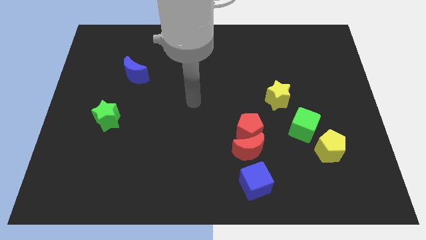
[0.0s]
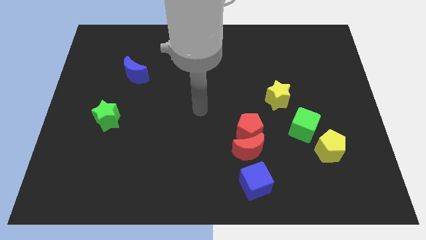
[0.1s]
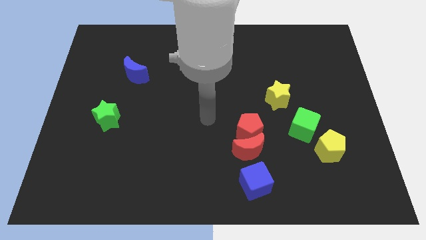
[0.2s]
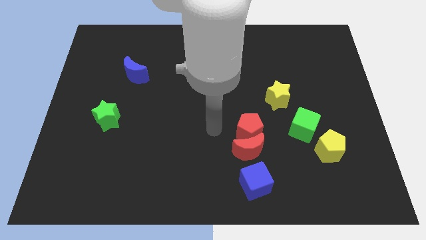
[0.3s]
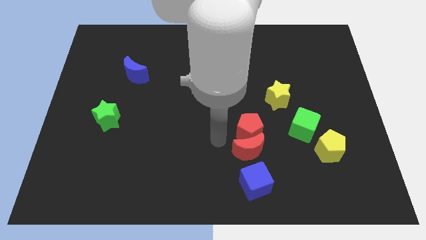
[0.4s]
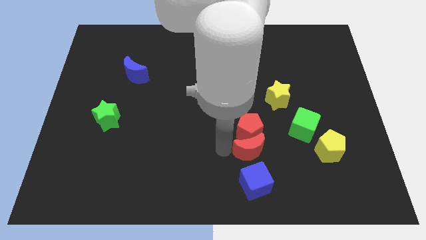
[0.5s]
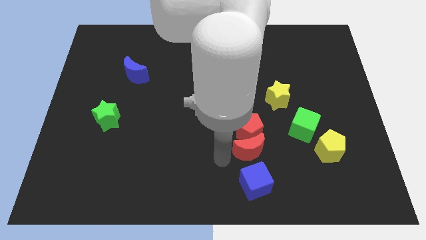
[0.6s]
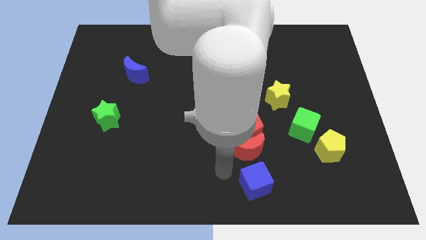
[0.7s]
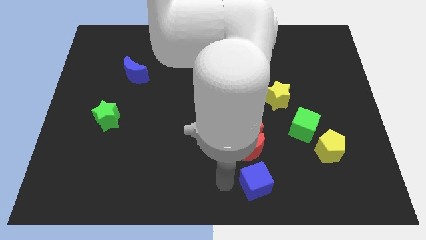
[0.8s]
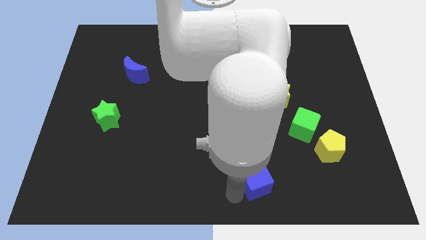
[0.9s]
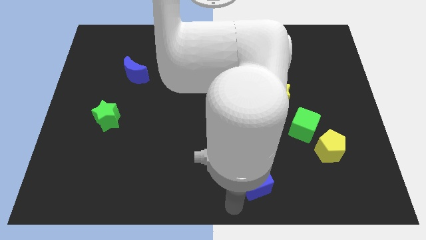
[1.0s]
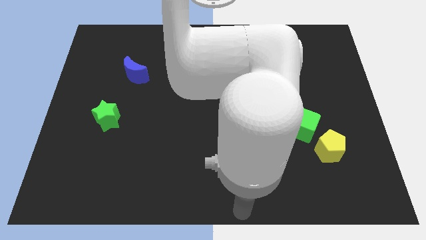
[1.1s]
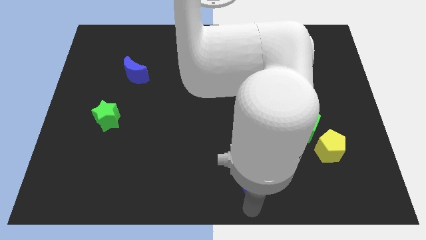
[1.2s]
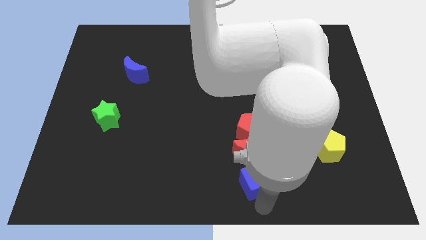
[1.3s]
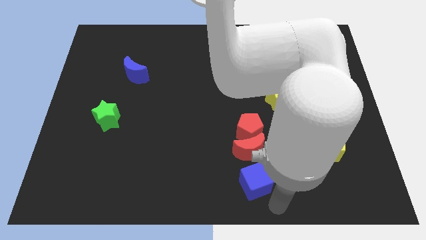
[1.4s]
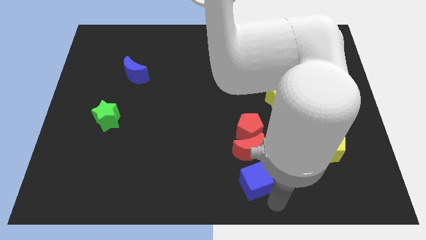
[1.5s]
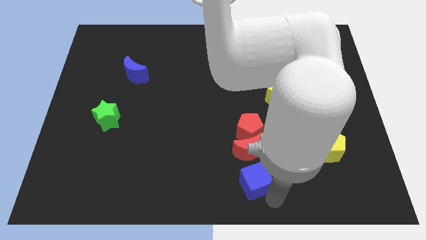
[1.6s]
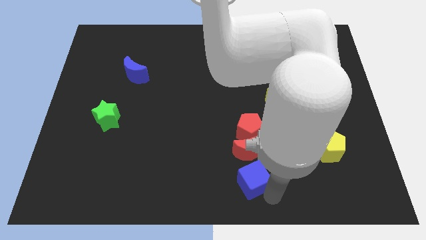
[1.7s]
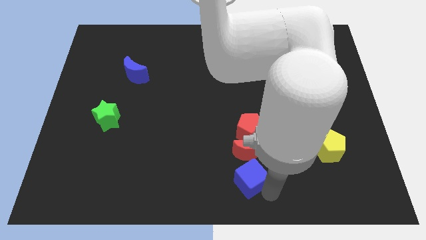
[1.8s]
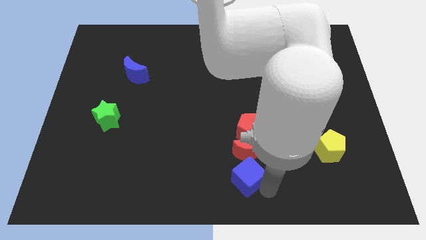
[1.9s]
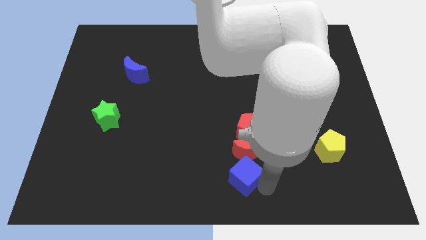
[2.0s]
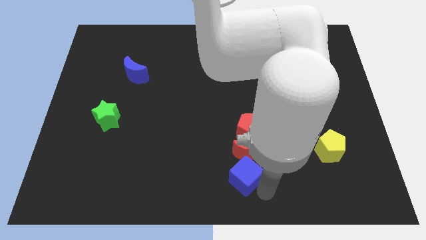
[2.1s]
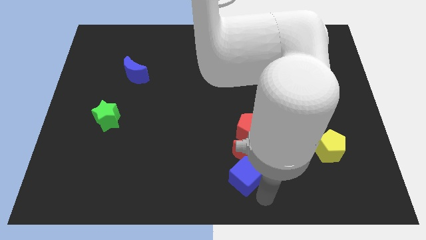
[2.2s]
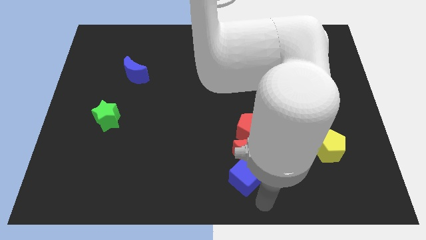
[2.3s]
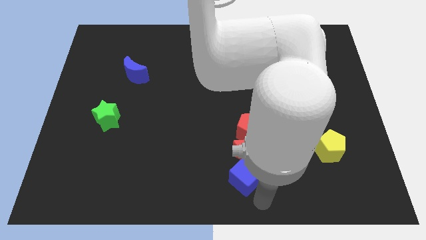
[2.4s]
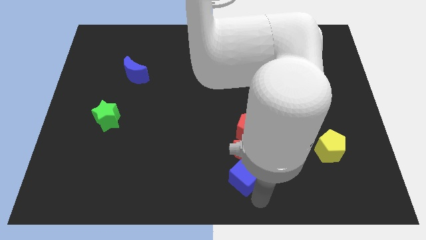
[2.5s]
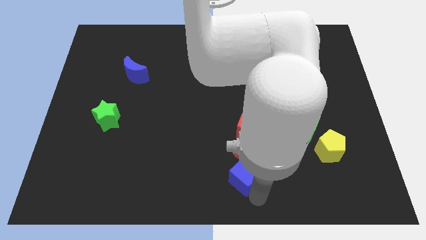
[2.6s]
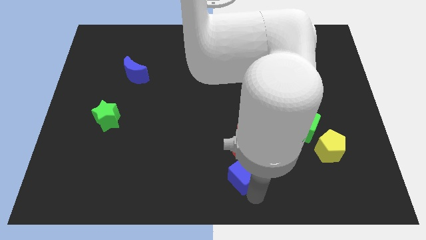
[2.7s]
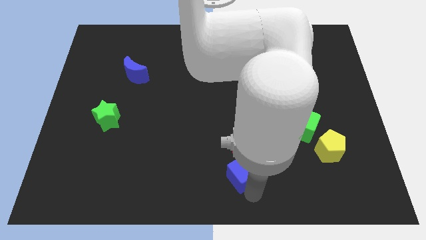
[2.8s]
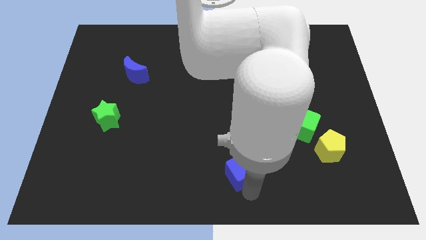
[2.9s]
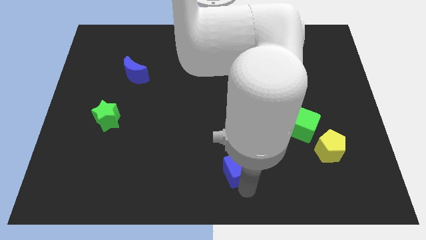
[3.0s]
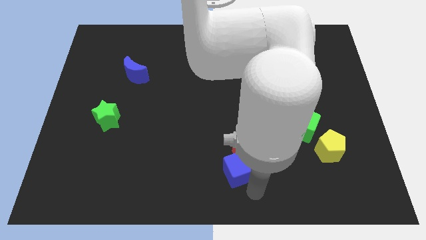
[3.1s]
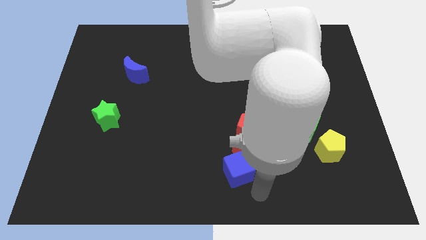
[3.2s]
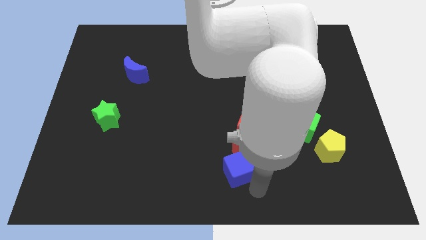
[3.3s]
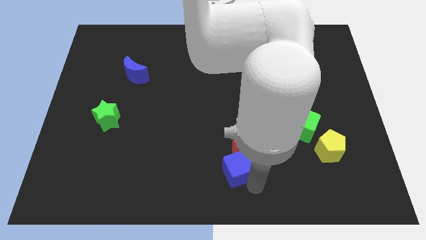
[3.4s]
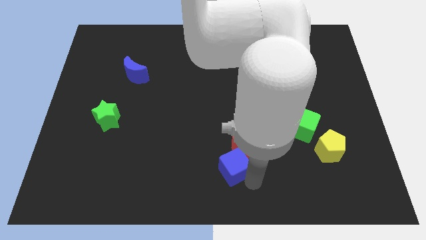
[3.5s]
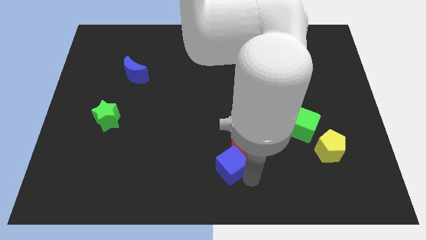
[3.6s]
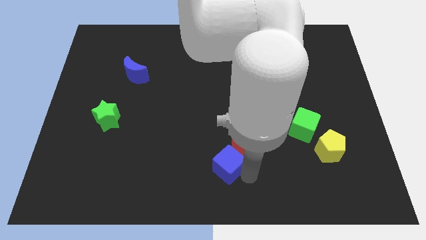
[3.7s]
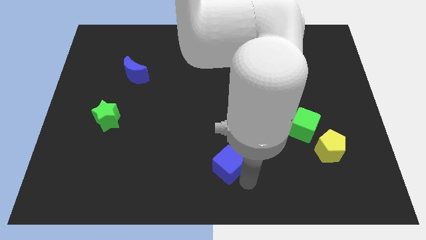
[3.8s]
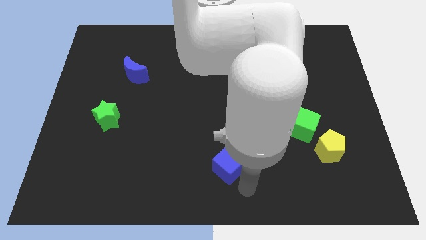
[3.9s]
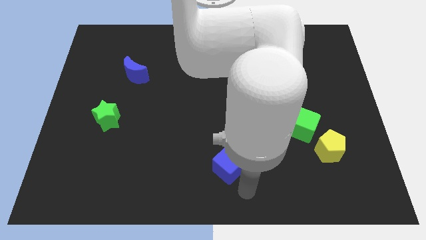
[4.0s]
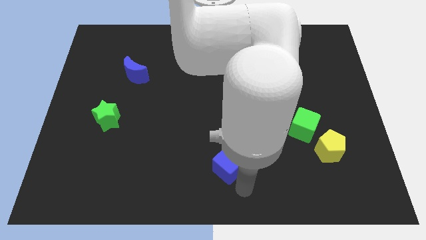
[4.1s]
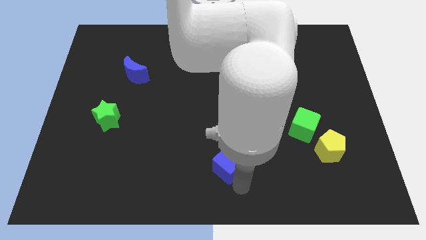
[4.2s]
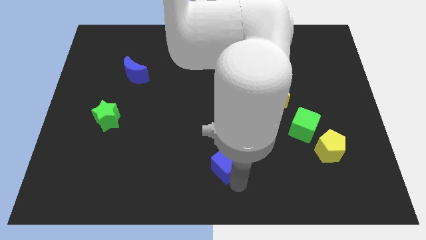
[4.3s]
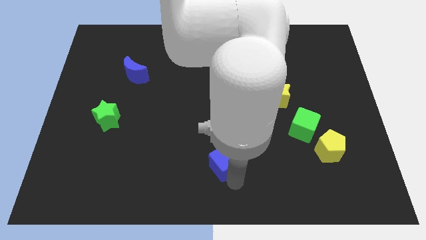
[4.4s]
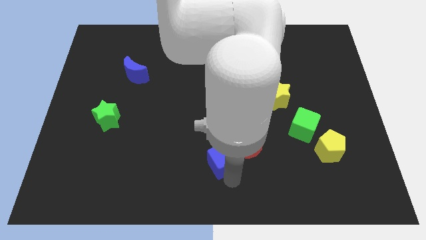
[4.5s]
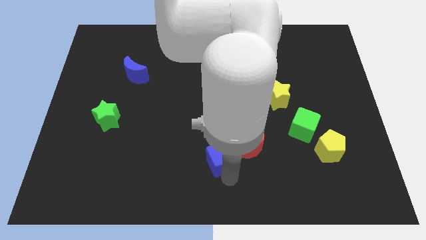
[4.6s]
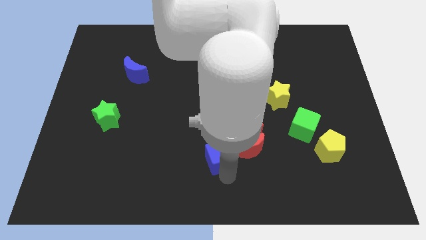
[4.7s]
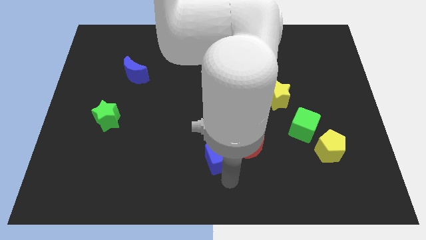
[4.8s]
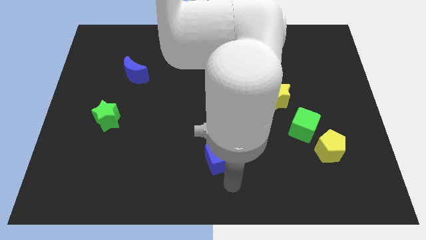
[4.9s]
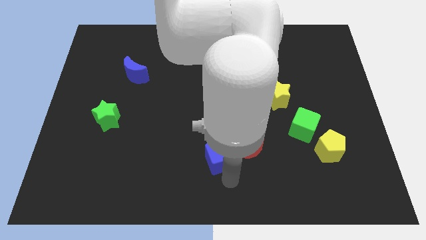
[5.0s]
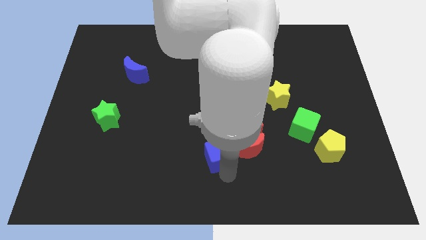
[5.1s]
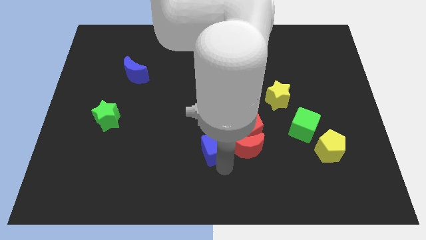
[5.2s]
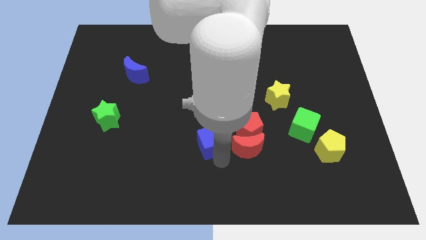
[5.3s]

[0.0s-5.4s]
slide the blue cube to the left side of the red pentagon

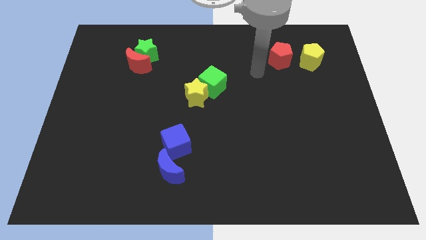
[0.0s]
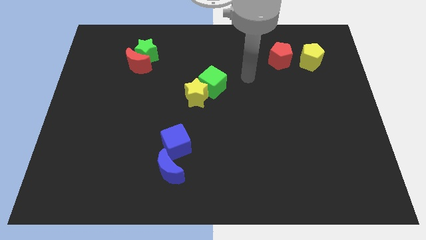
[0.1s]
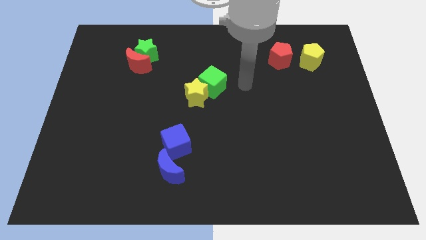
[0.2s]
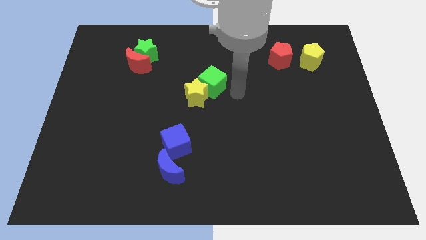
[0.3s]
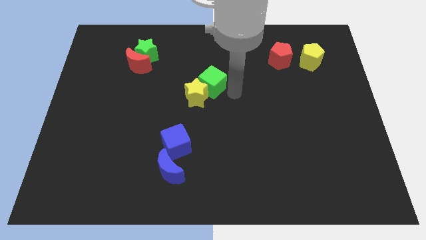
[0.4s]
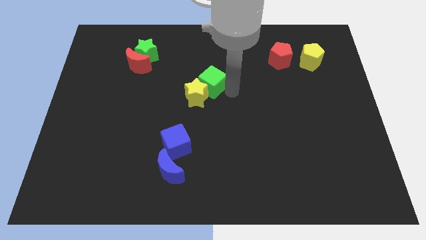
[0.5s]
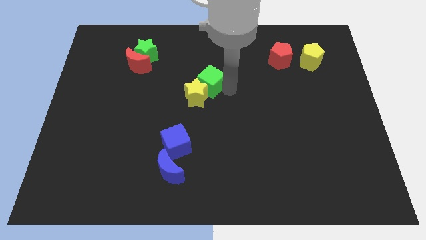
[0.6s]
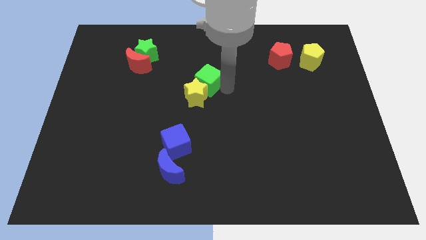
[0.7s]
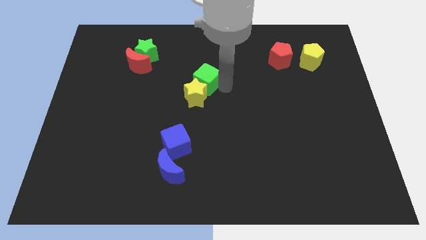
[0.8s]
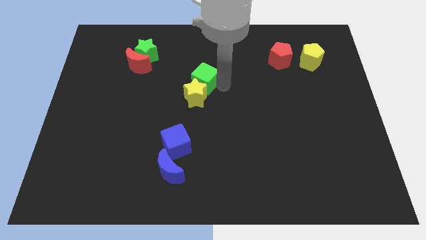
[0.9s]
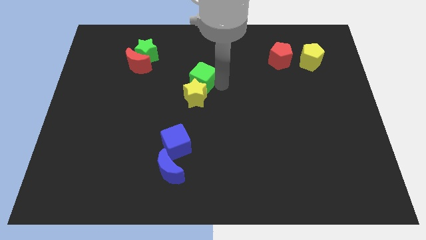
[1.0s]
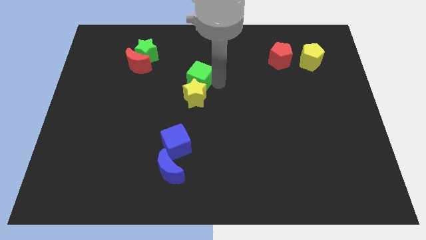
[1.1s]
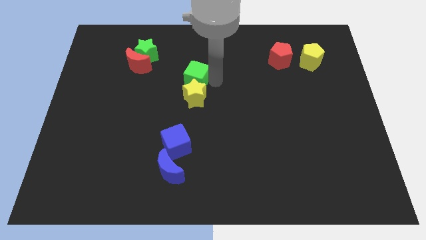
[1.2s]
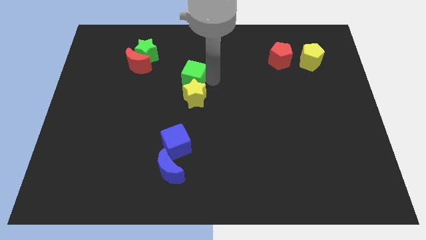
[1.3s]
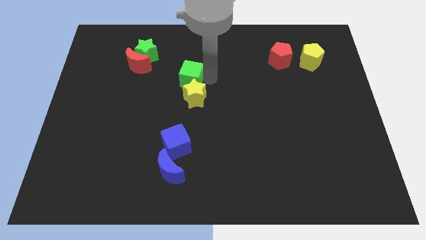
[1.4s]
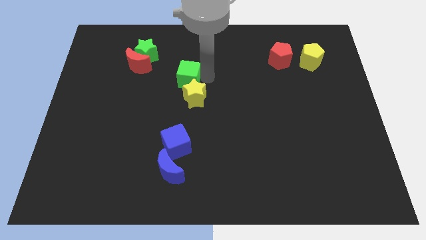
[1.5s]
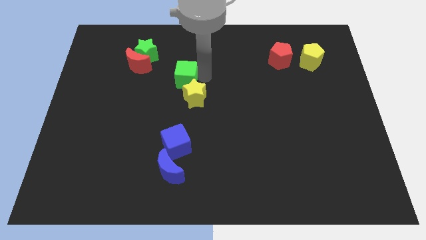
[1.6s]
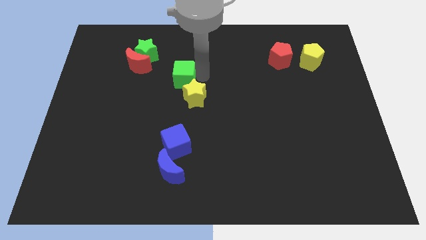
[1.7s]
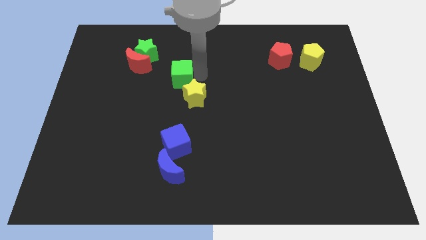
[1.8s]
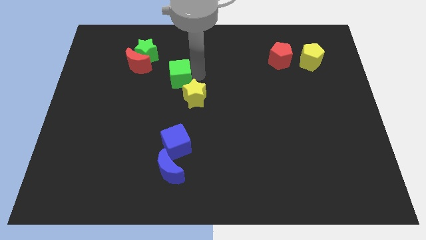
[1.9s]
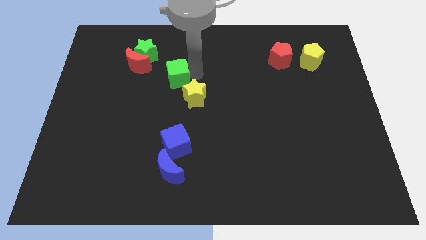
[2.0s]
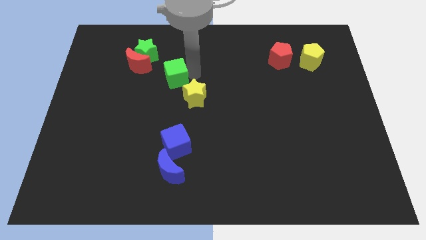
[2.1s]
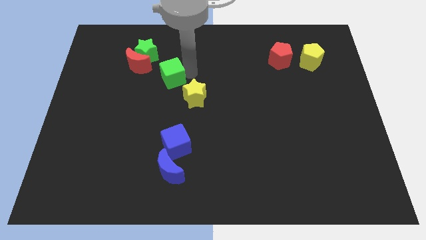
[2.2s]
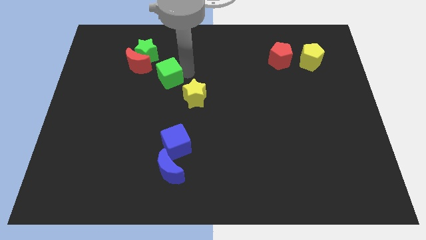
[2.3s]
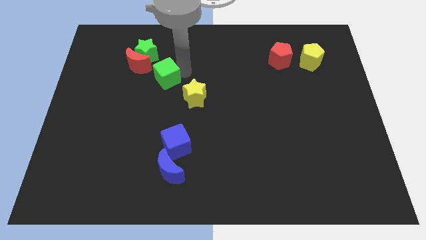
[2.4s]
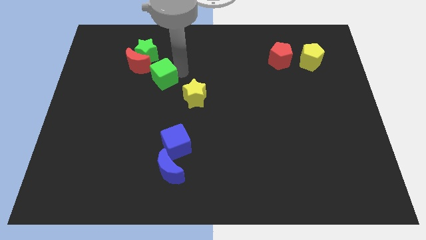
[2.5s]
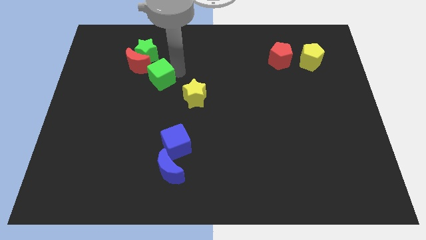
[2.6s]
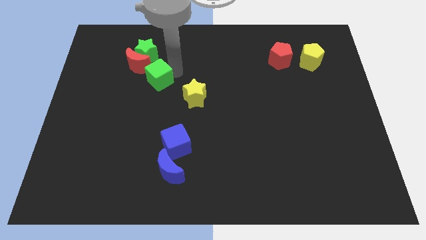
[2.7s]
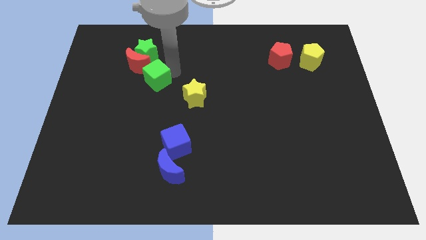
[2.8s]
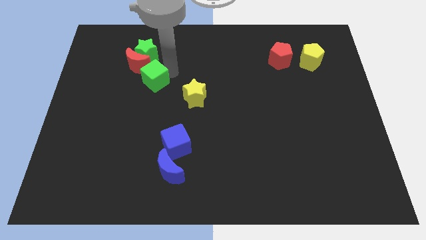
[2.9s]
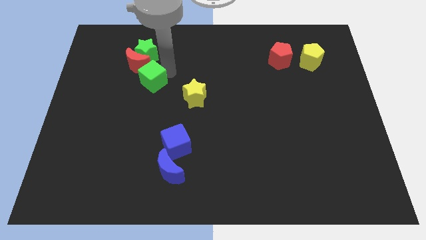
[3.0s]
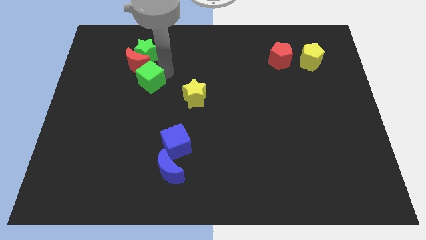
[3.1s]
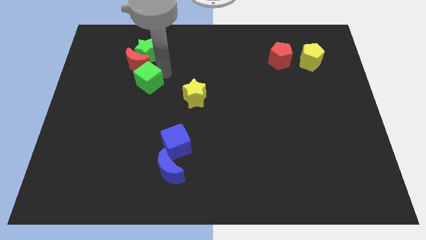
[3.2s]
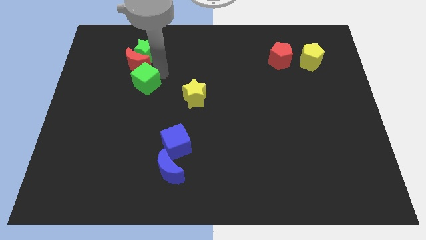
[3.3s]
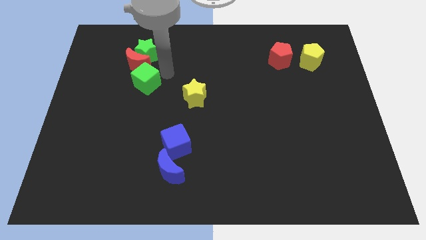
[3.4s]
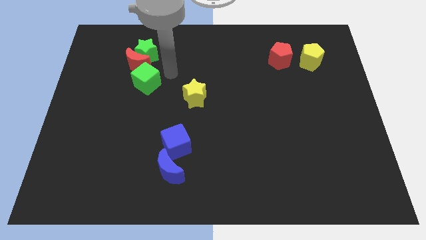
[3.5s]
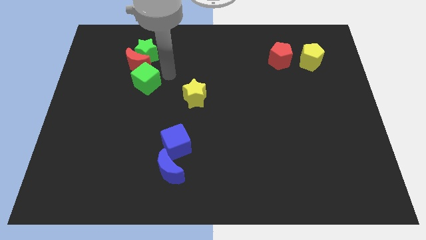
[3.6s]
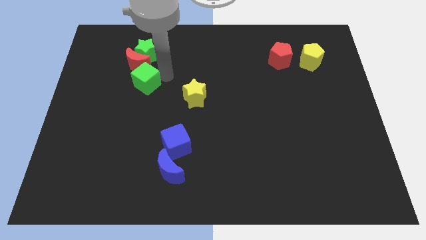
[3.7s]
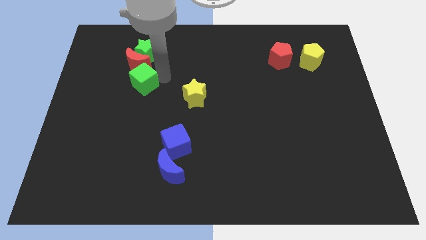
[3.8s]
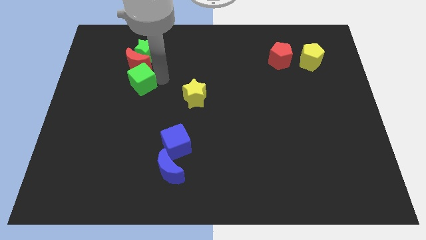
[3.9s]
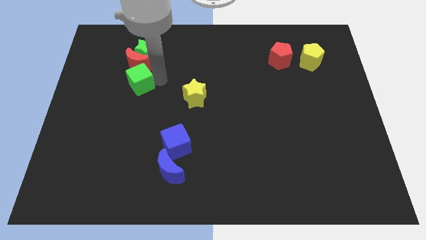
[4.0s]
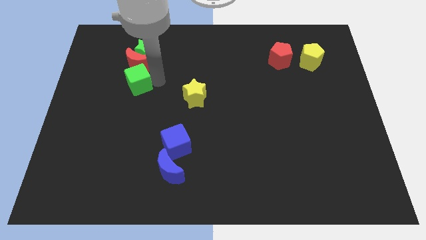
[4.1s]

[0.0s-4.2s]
push the green cube diagonally down and to the left of the red moon
